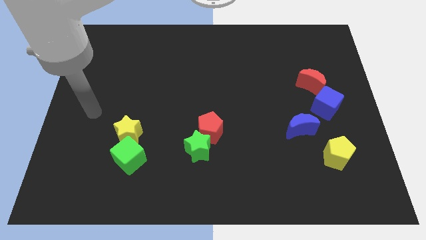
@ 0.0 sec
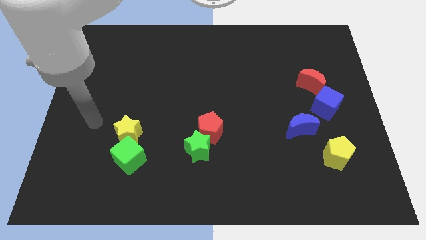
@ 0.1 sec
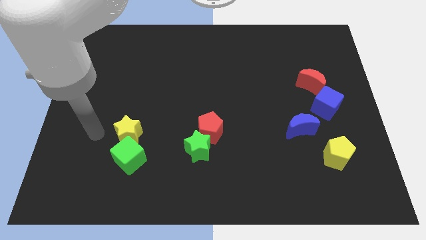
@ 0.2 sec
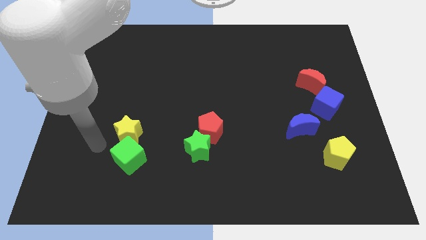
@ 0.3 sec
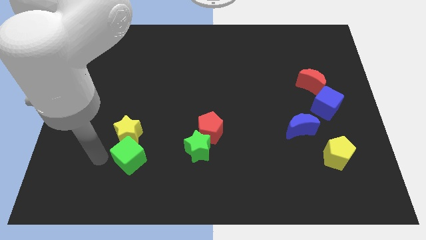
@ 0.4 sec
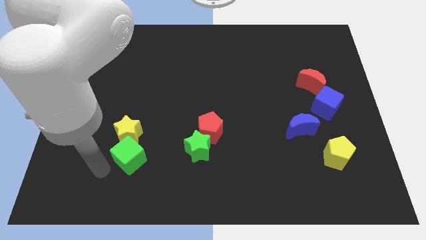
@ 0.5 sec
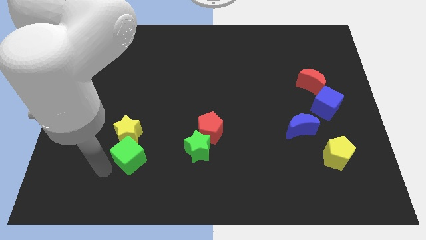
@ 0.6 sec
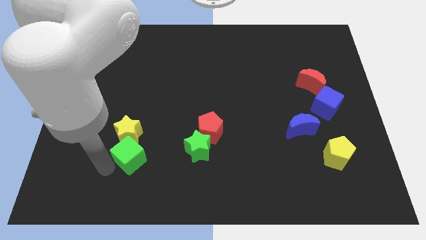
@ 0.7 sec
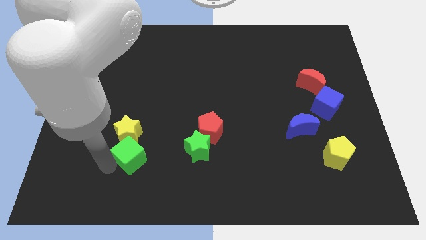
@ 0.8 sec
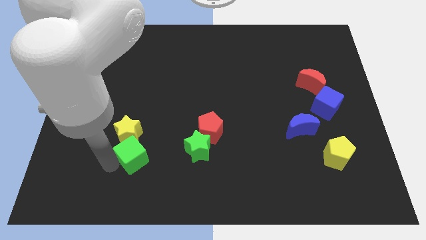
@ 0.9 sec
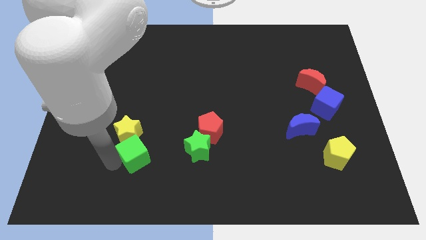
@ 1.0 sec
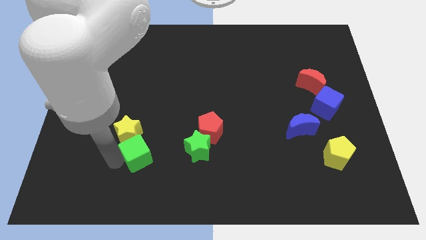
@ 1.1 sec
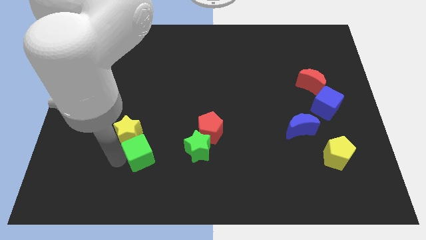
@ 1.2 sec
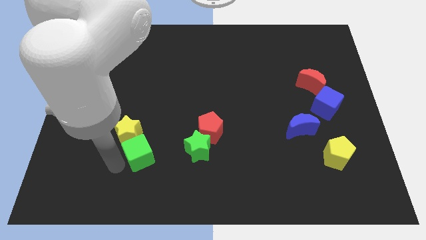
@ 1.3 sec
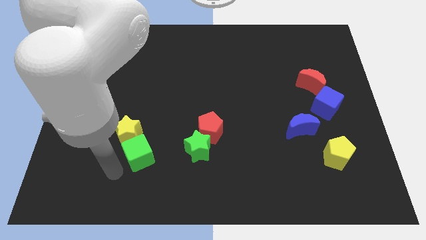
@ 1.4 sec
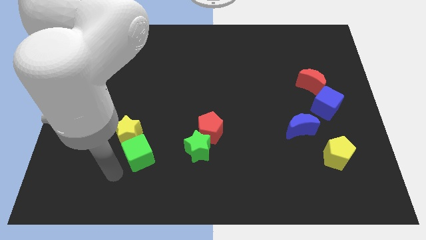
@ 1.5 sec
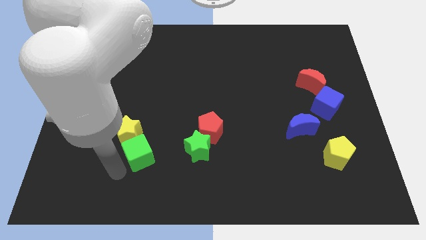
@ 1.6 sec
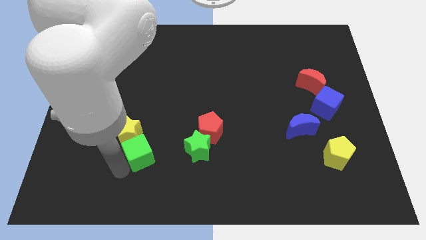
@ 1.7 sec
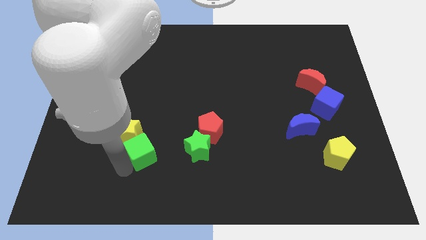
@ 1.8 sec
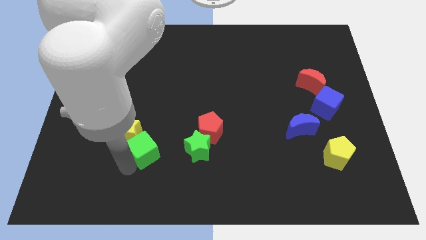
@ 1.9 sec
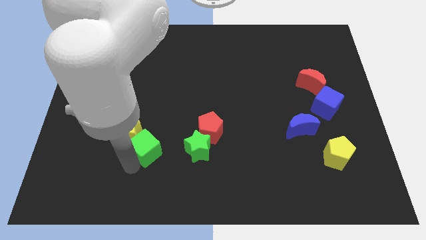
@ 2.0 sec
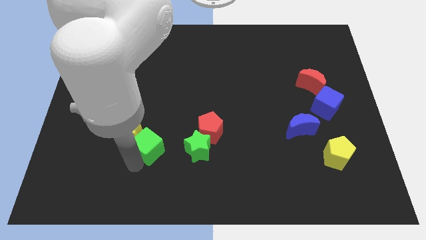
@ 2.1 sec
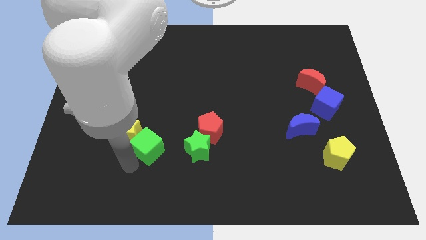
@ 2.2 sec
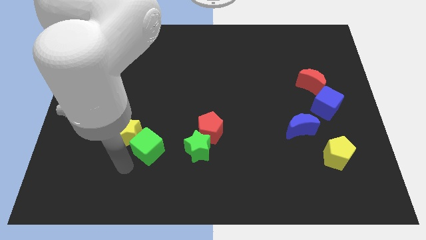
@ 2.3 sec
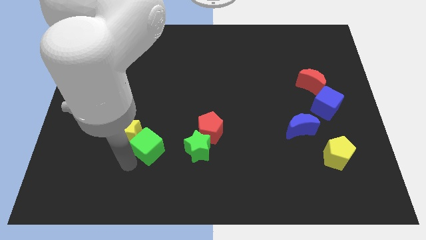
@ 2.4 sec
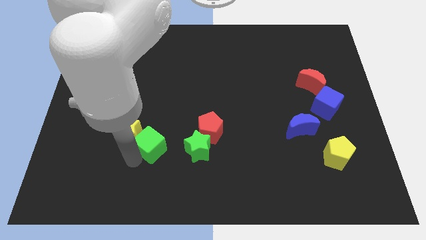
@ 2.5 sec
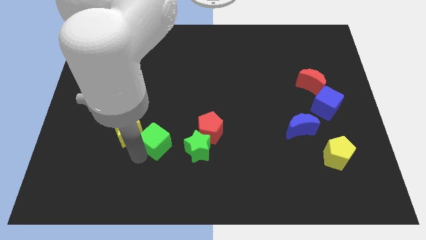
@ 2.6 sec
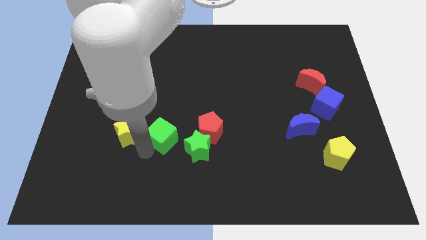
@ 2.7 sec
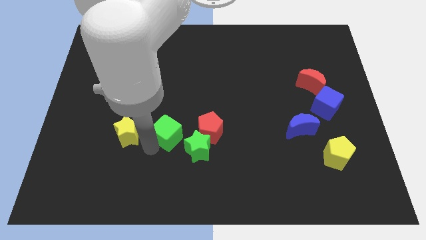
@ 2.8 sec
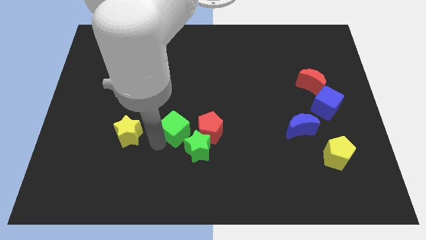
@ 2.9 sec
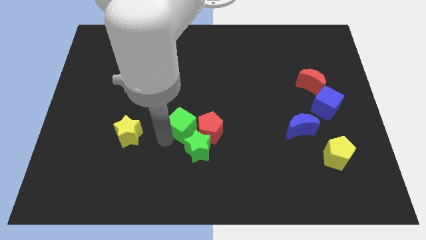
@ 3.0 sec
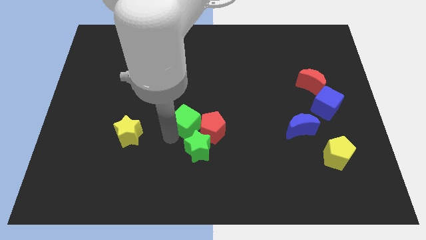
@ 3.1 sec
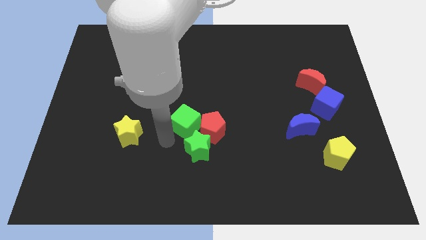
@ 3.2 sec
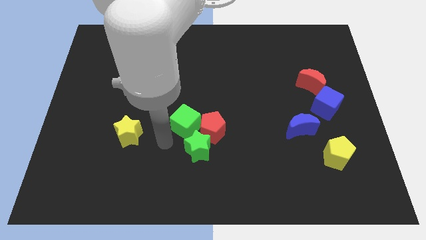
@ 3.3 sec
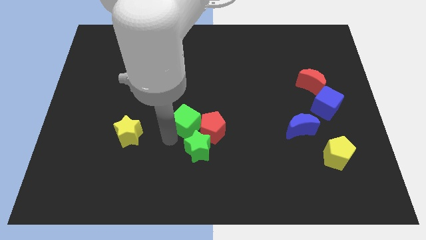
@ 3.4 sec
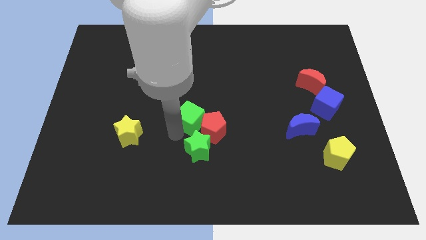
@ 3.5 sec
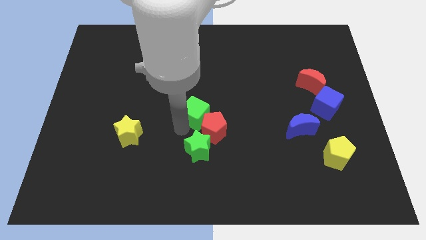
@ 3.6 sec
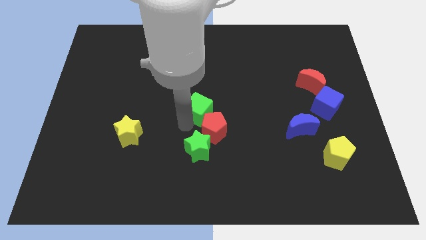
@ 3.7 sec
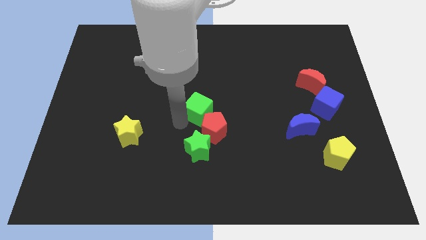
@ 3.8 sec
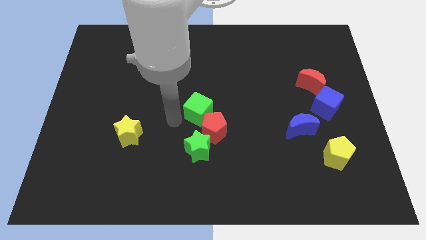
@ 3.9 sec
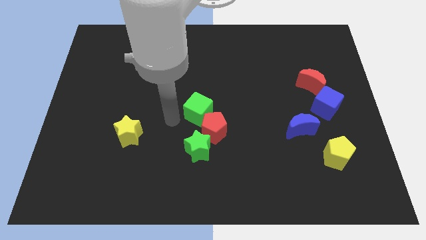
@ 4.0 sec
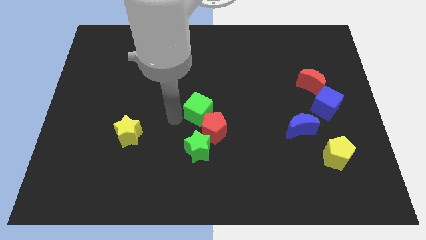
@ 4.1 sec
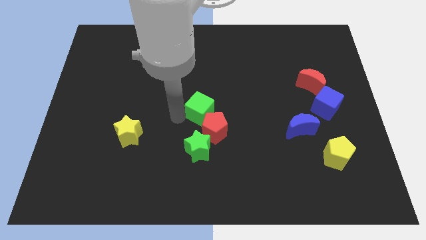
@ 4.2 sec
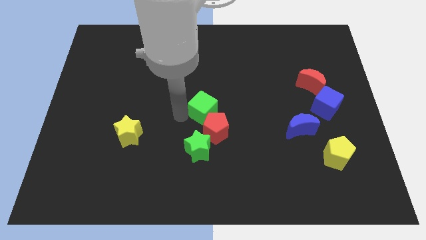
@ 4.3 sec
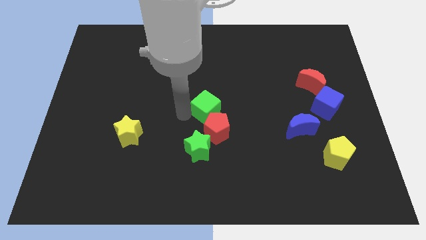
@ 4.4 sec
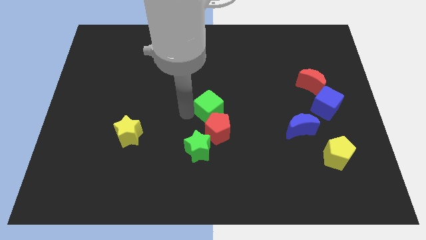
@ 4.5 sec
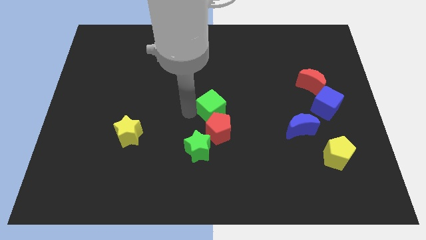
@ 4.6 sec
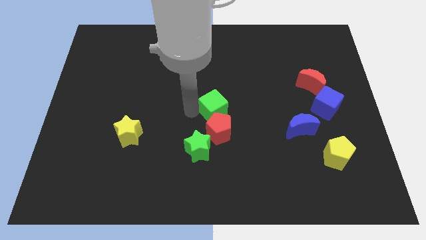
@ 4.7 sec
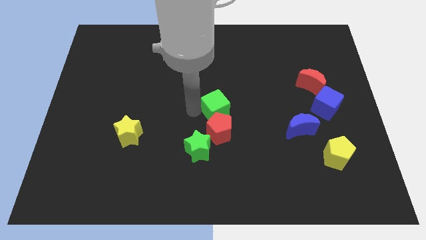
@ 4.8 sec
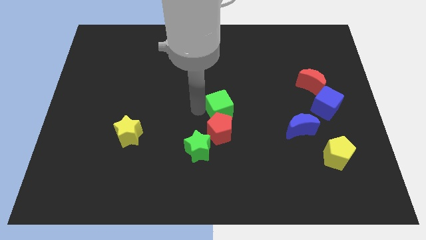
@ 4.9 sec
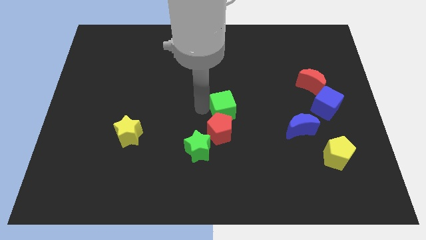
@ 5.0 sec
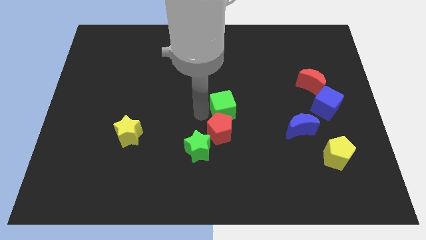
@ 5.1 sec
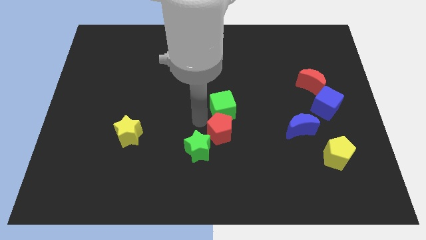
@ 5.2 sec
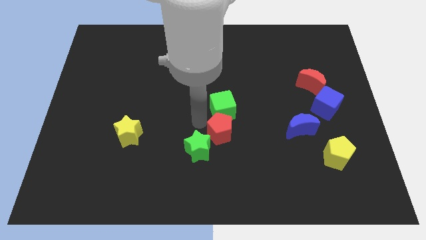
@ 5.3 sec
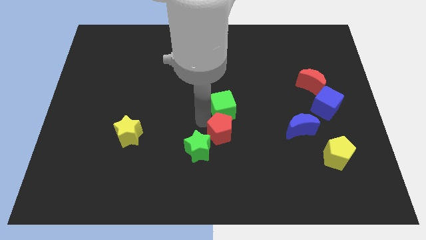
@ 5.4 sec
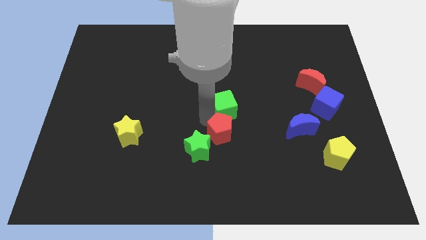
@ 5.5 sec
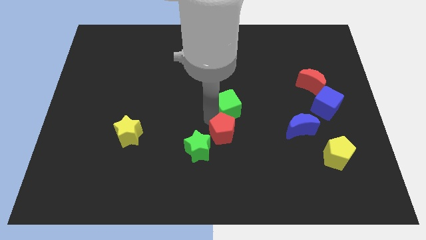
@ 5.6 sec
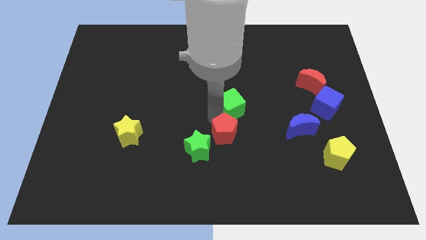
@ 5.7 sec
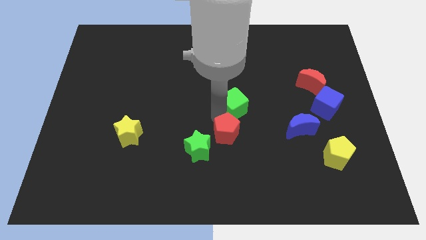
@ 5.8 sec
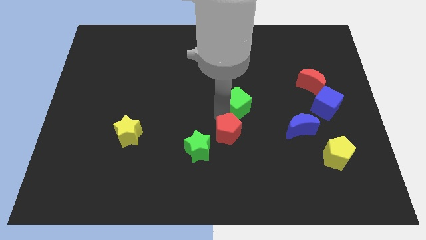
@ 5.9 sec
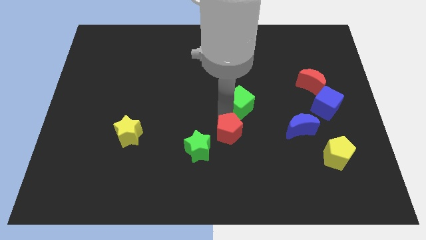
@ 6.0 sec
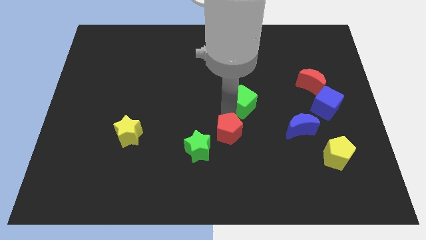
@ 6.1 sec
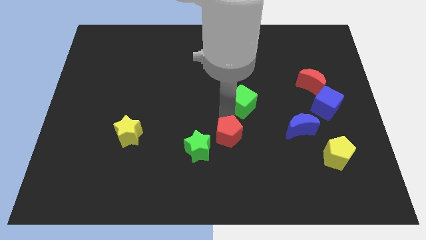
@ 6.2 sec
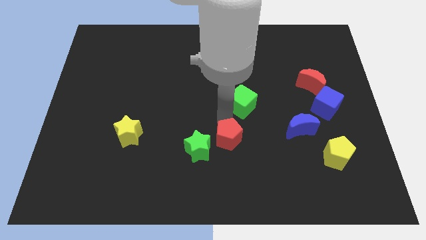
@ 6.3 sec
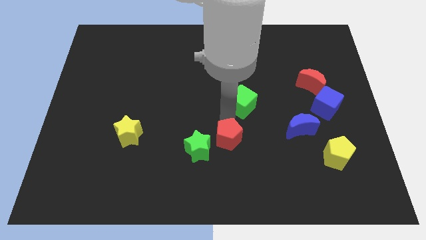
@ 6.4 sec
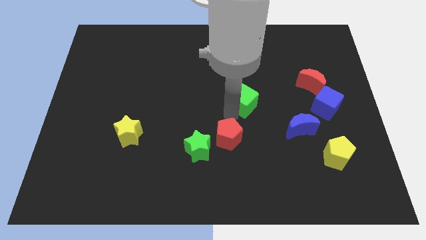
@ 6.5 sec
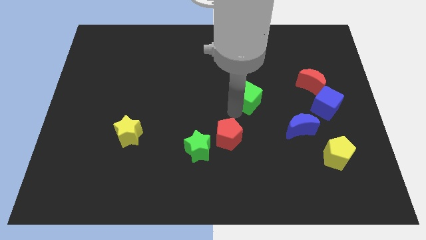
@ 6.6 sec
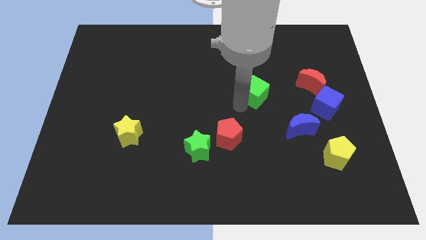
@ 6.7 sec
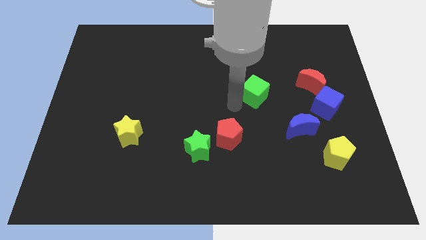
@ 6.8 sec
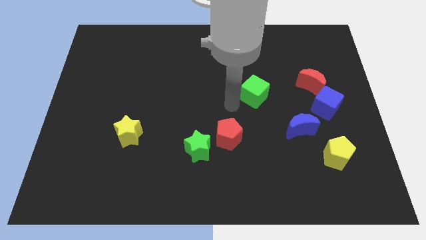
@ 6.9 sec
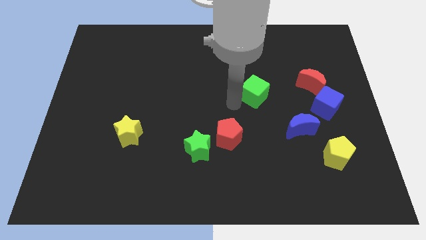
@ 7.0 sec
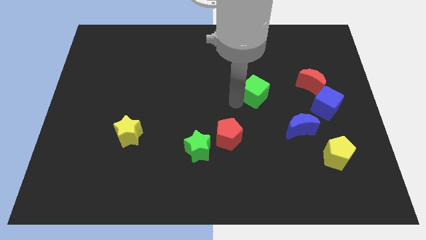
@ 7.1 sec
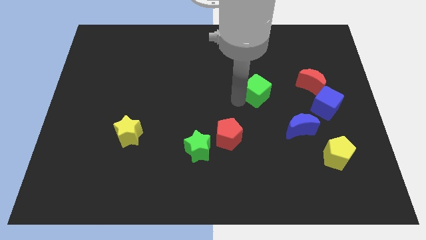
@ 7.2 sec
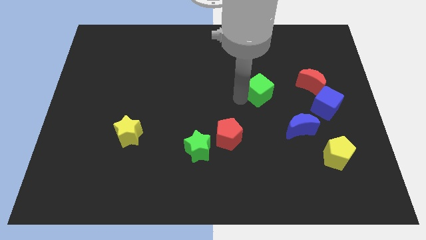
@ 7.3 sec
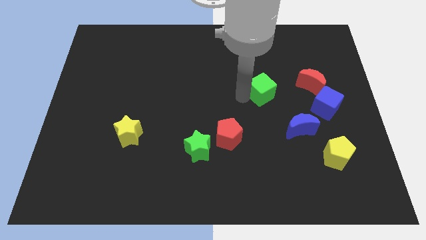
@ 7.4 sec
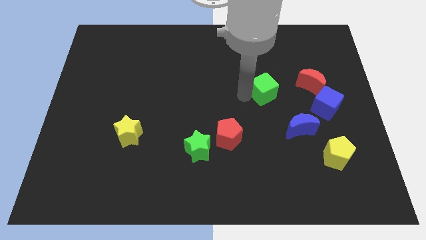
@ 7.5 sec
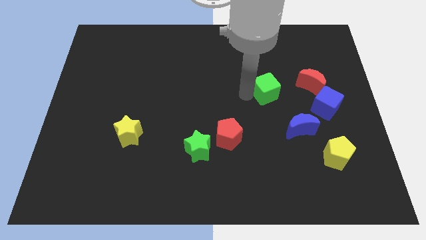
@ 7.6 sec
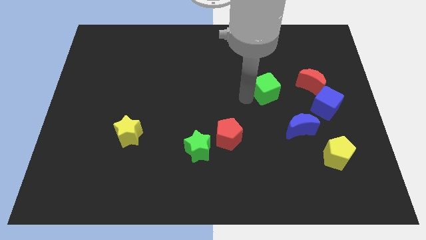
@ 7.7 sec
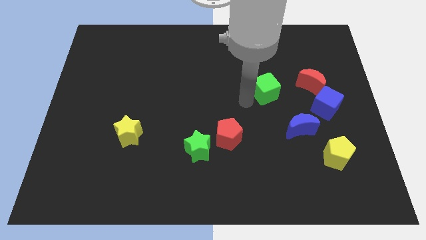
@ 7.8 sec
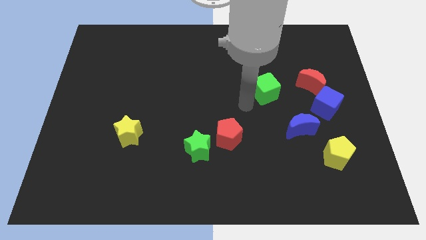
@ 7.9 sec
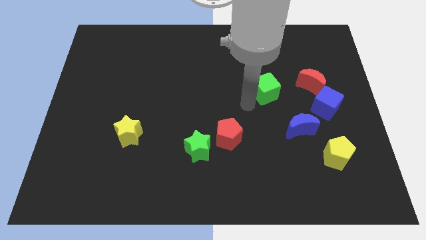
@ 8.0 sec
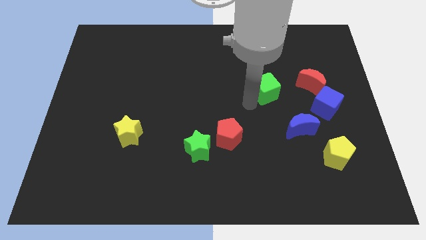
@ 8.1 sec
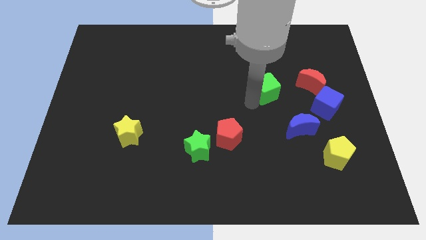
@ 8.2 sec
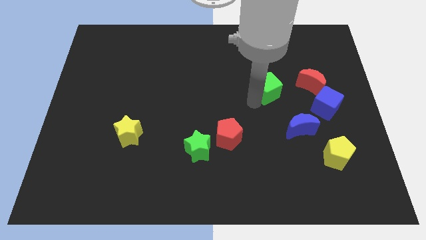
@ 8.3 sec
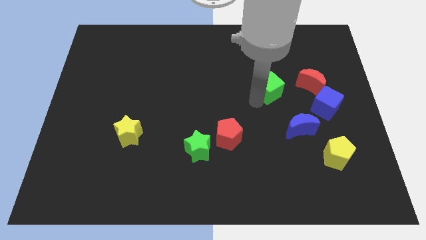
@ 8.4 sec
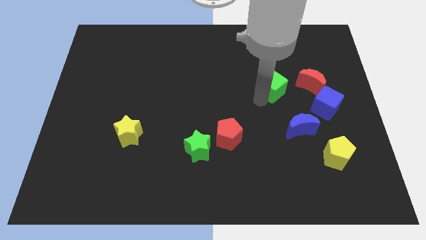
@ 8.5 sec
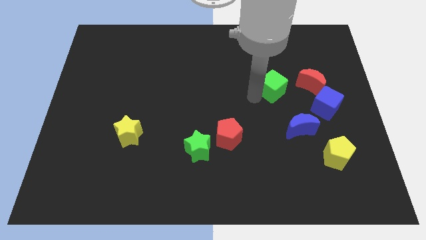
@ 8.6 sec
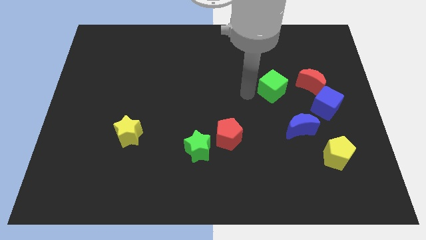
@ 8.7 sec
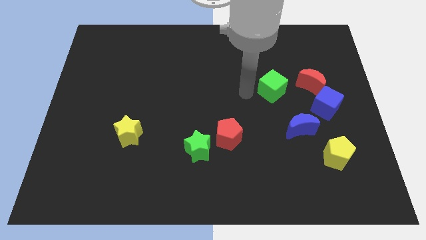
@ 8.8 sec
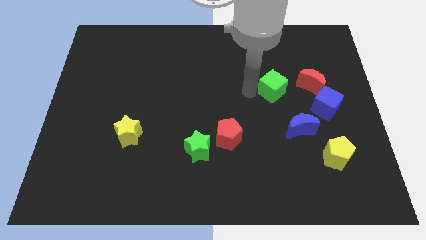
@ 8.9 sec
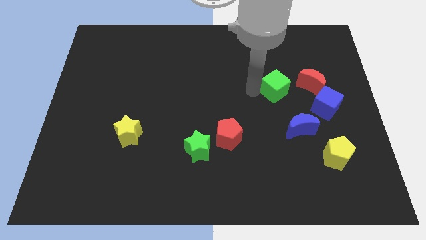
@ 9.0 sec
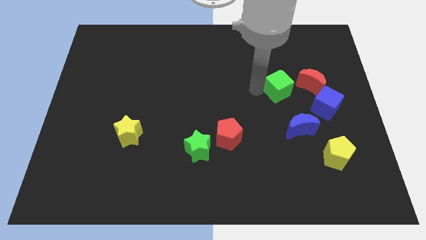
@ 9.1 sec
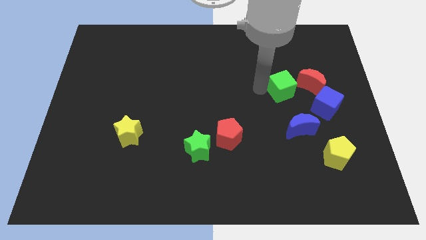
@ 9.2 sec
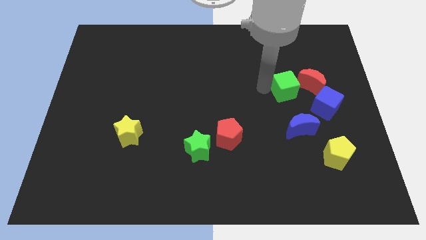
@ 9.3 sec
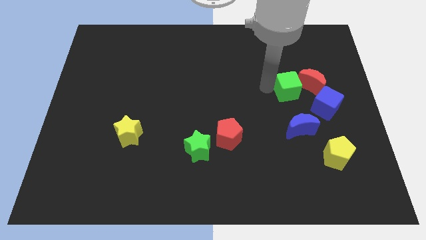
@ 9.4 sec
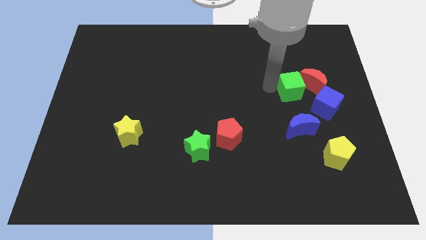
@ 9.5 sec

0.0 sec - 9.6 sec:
push the green cube next to the red moon
